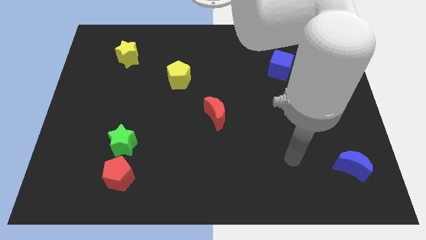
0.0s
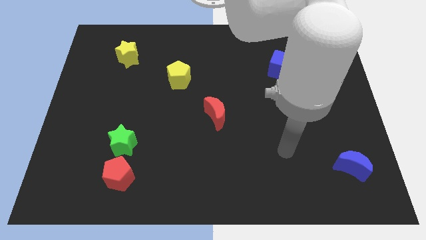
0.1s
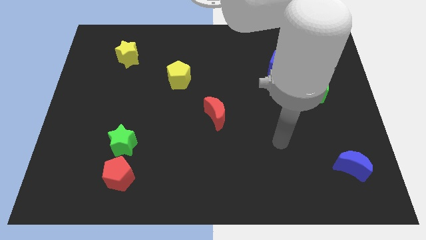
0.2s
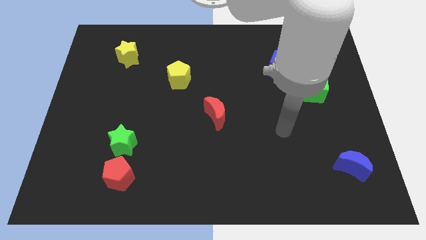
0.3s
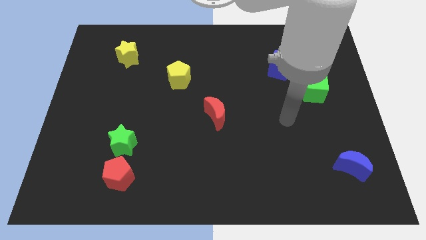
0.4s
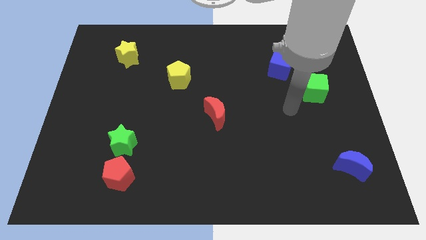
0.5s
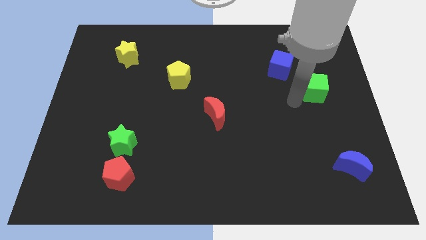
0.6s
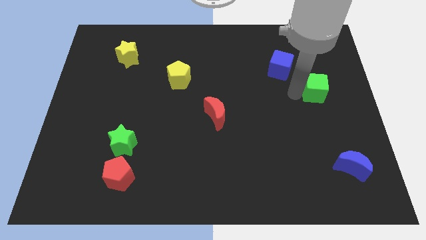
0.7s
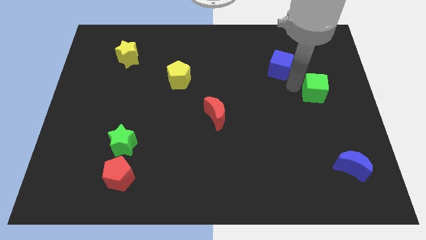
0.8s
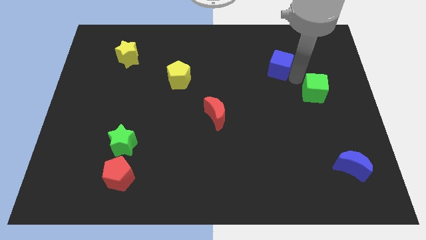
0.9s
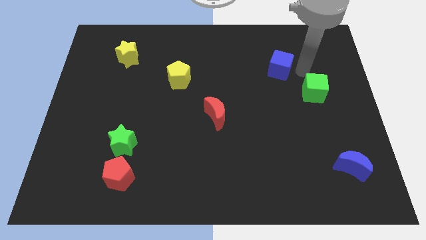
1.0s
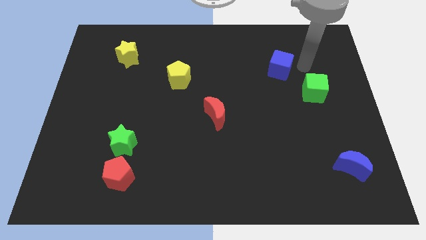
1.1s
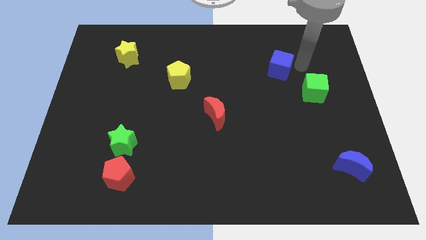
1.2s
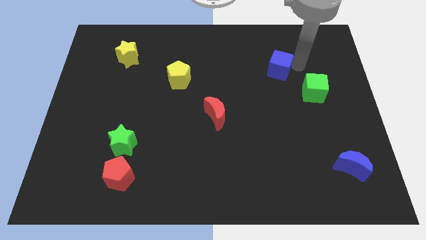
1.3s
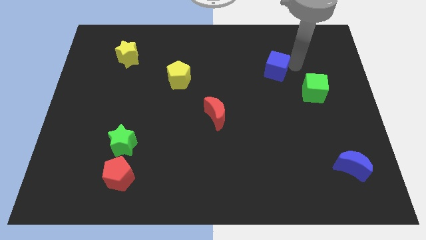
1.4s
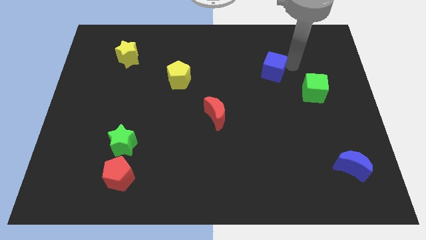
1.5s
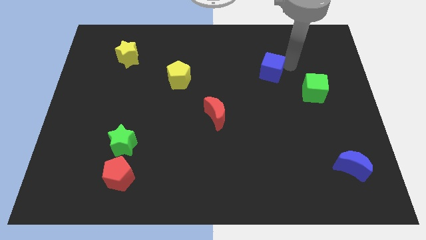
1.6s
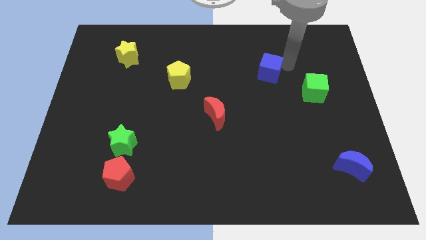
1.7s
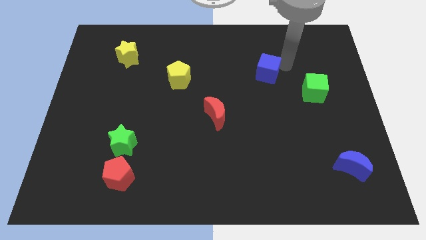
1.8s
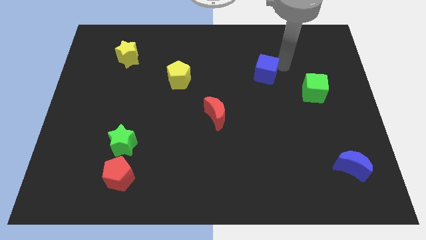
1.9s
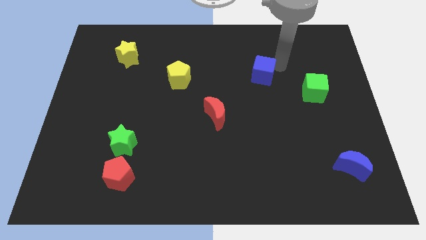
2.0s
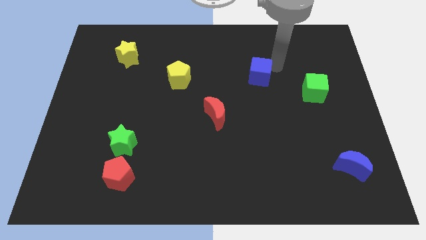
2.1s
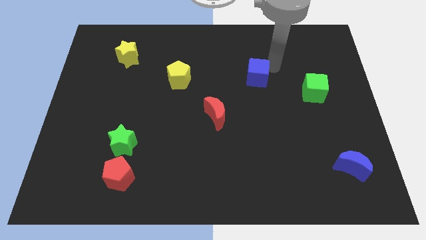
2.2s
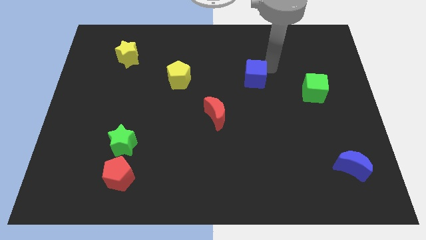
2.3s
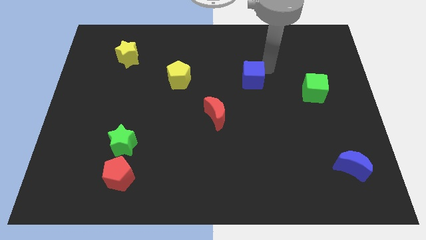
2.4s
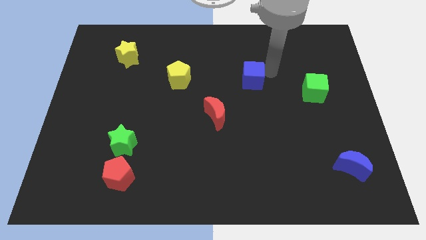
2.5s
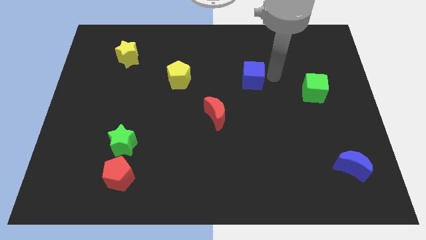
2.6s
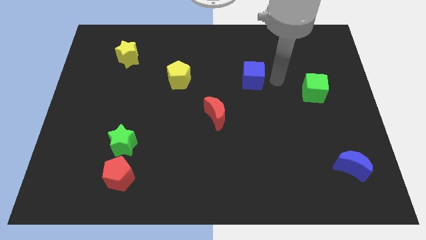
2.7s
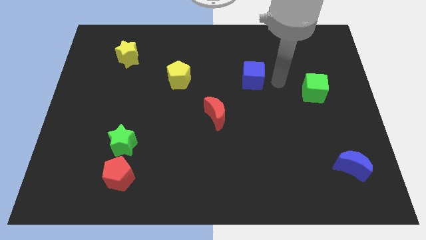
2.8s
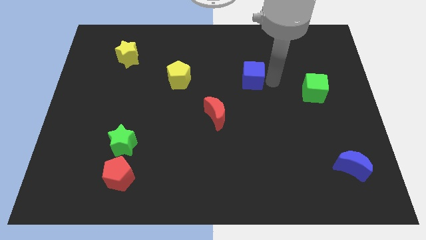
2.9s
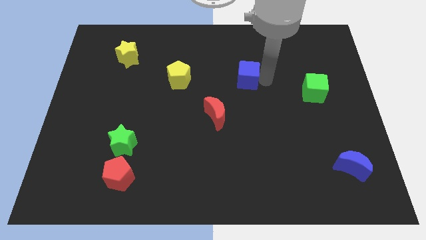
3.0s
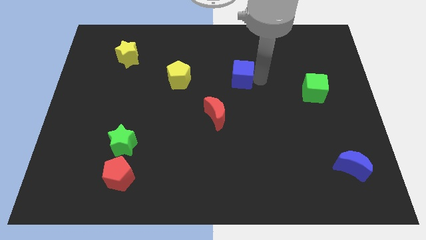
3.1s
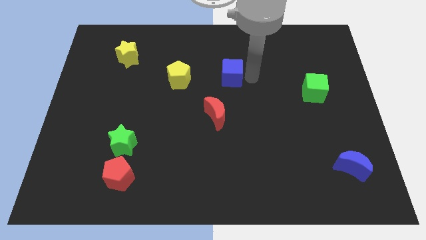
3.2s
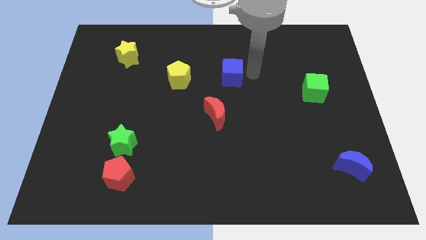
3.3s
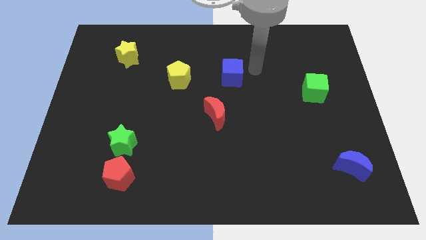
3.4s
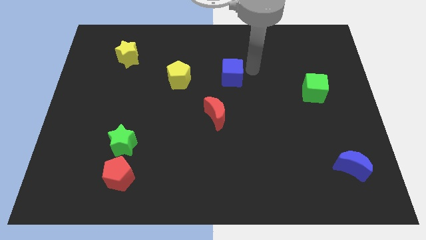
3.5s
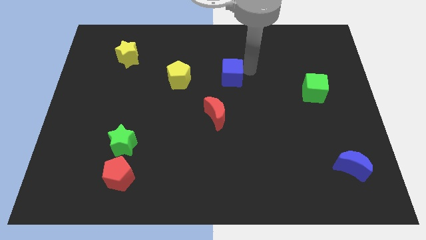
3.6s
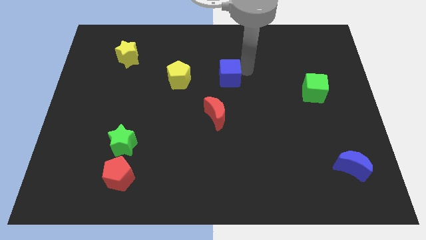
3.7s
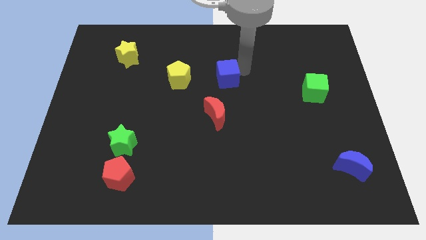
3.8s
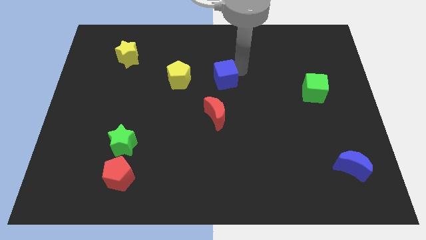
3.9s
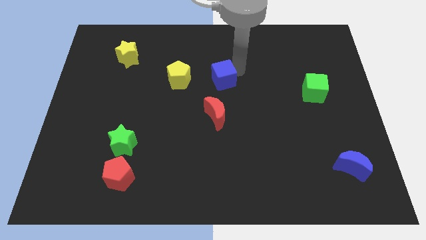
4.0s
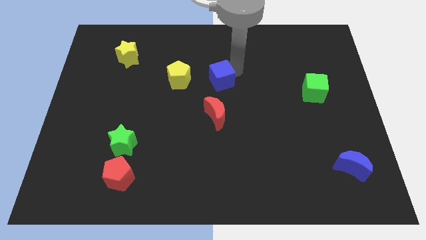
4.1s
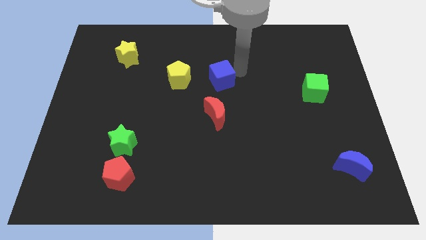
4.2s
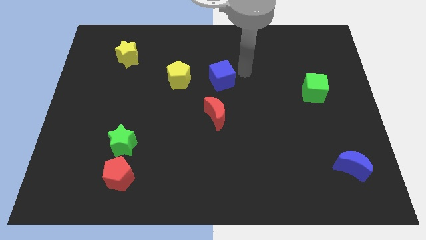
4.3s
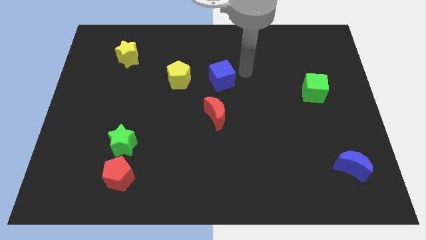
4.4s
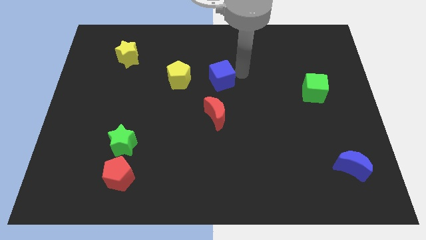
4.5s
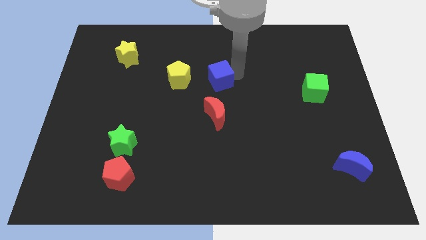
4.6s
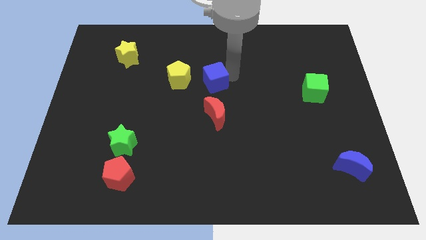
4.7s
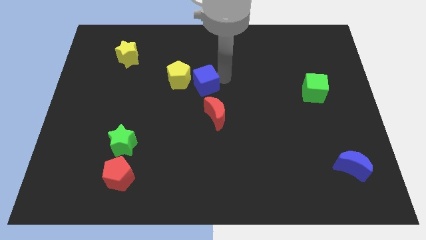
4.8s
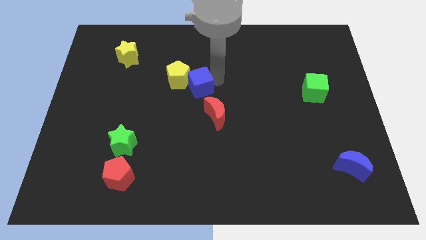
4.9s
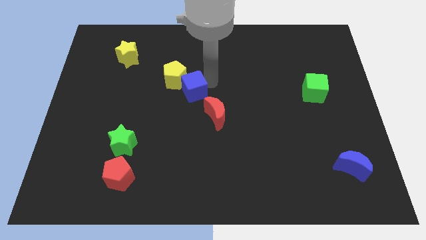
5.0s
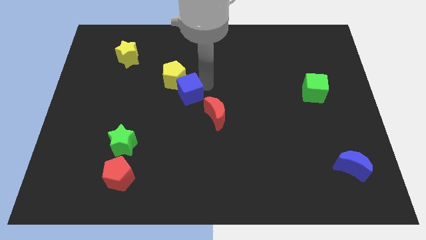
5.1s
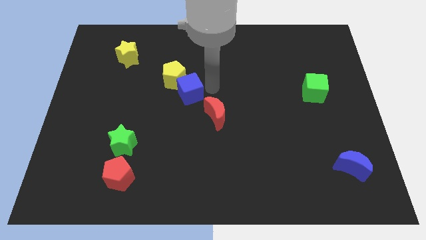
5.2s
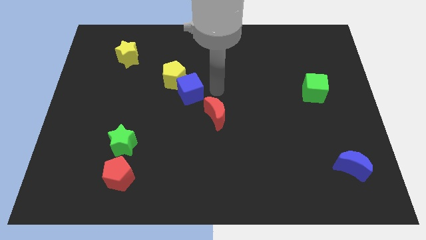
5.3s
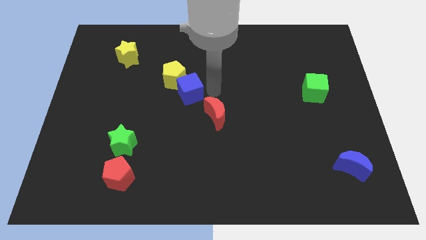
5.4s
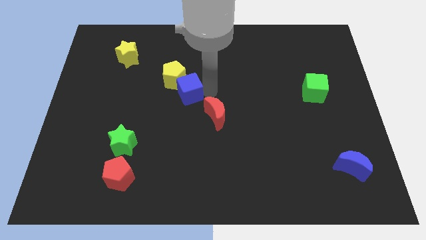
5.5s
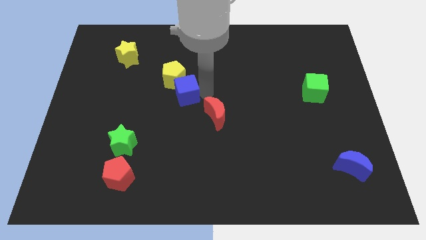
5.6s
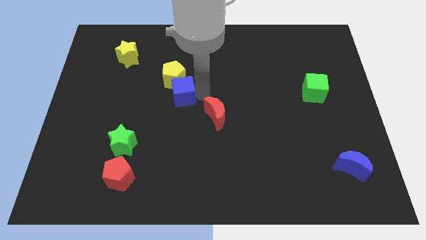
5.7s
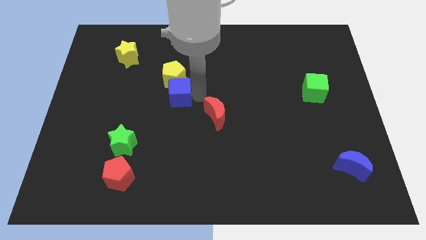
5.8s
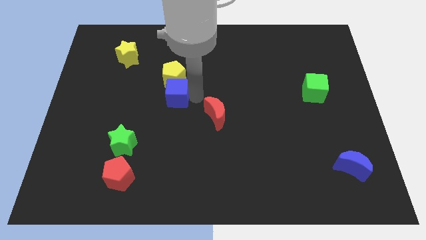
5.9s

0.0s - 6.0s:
push the blue cube to the bottom left of the yellow pentagon

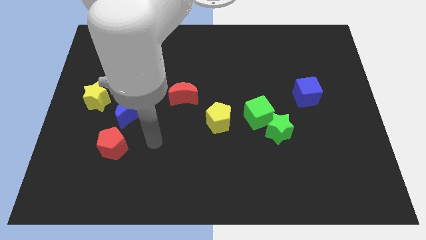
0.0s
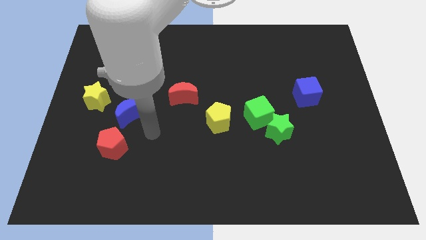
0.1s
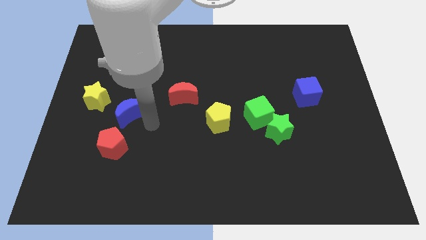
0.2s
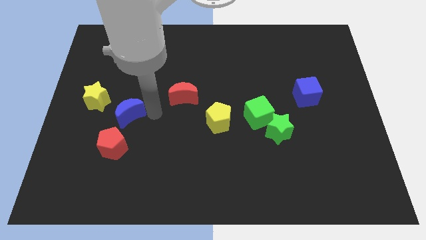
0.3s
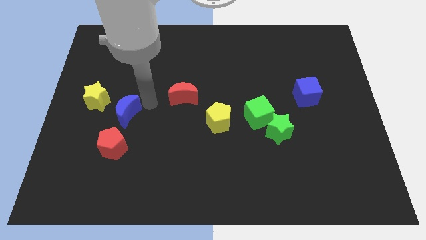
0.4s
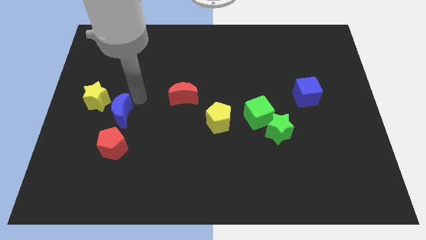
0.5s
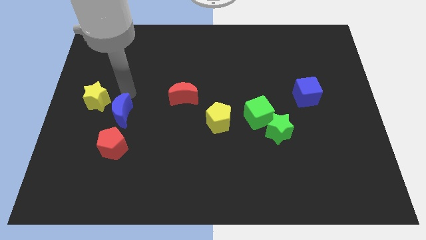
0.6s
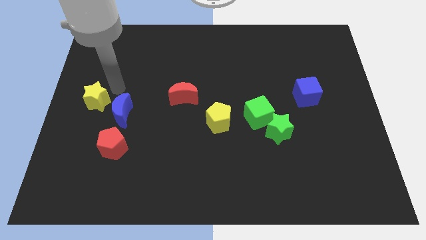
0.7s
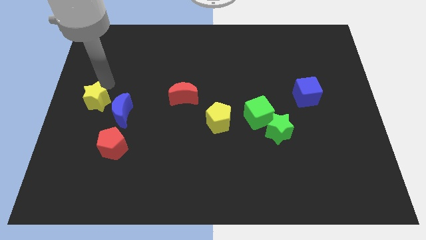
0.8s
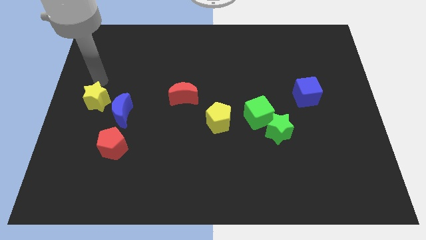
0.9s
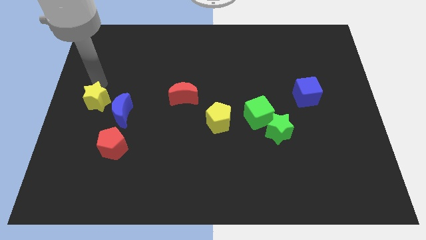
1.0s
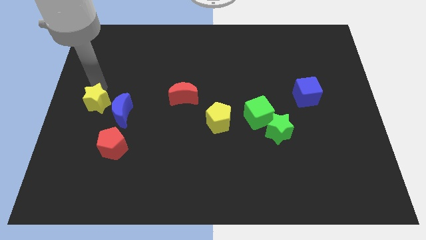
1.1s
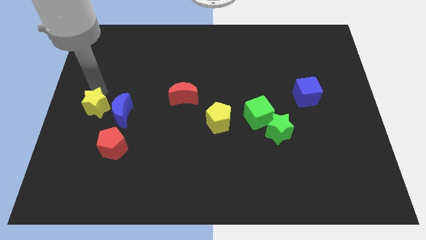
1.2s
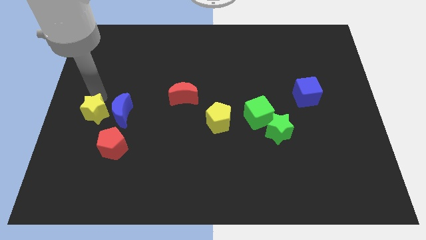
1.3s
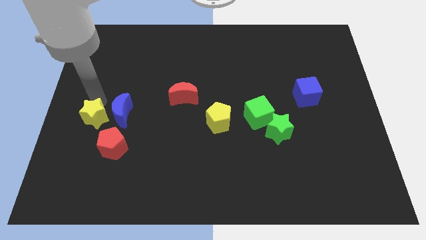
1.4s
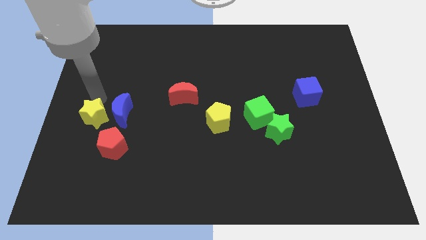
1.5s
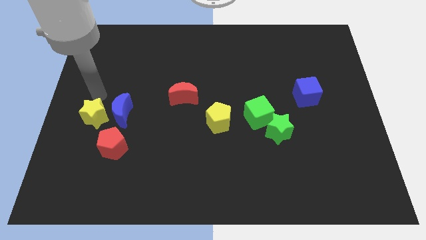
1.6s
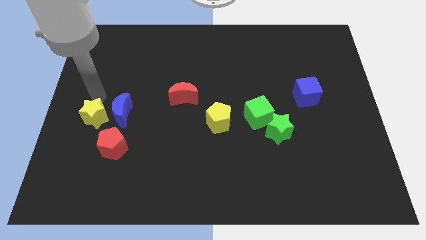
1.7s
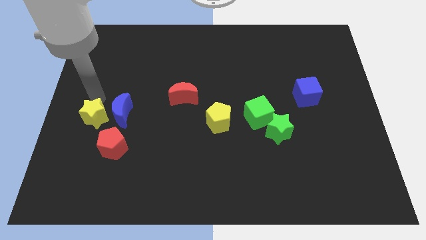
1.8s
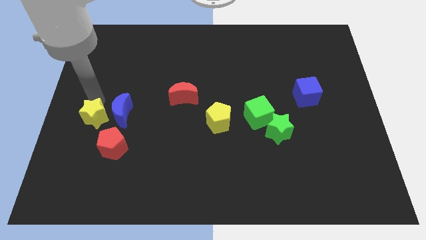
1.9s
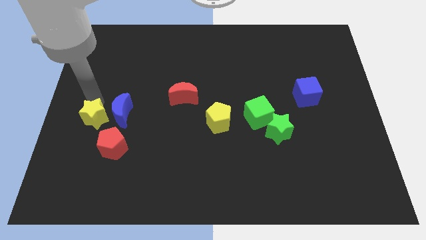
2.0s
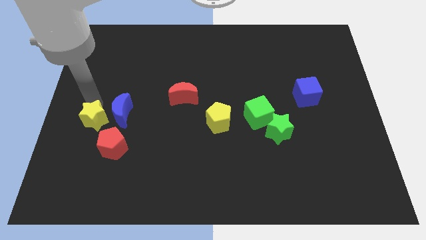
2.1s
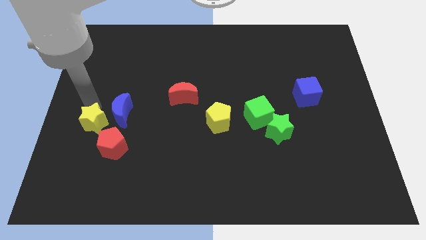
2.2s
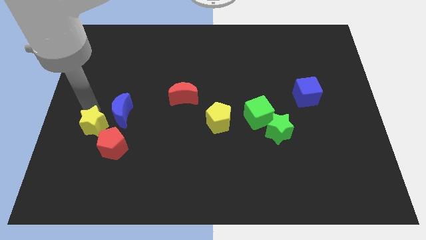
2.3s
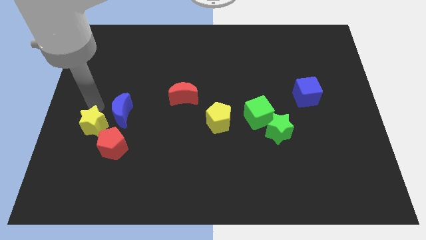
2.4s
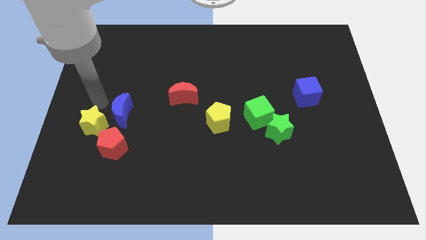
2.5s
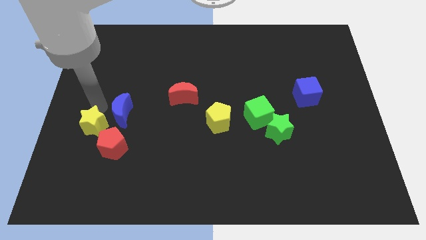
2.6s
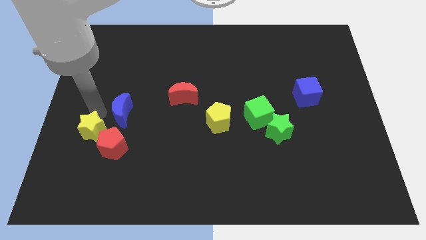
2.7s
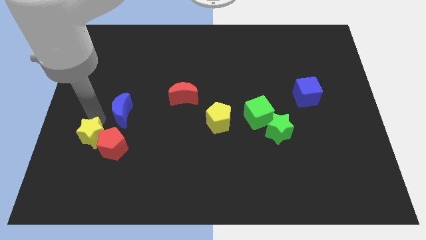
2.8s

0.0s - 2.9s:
put the yellow star to the bottom of the blue moon
